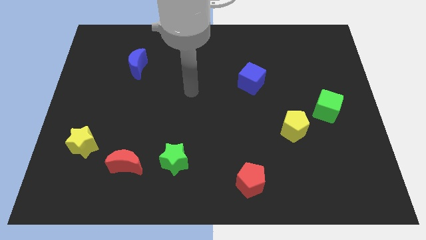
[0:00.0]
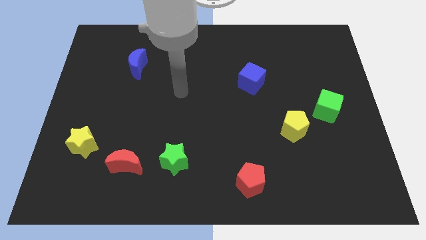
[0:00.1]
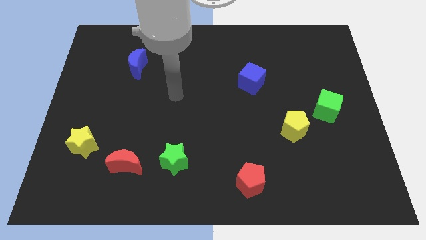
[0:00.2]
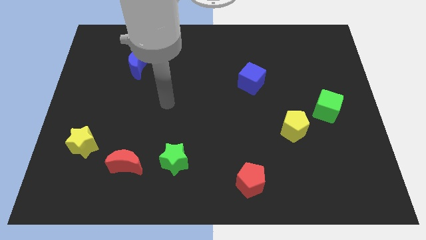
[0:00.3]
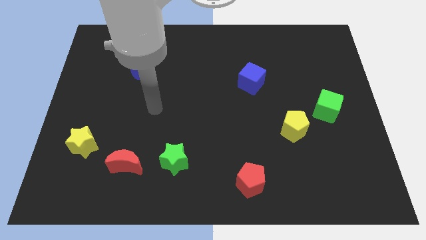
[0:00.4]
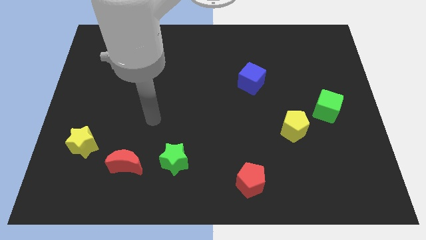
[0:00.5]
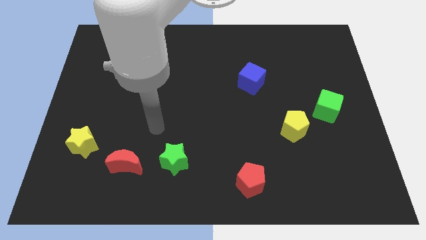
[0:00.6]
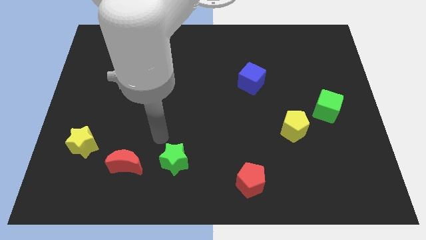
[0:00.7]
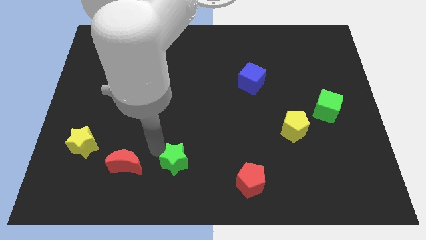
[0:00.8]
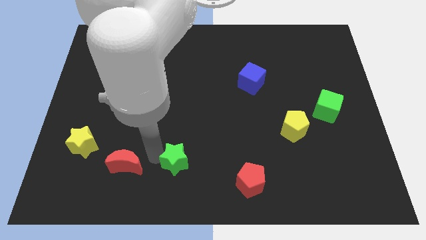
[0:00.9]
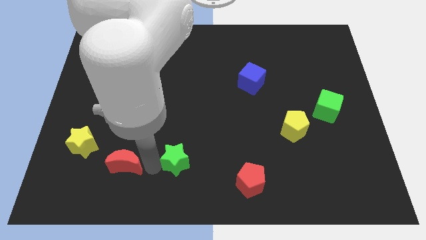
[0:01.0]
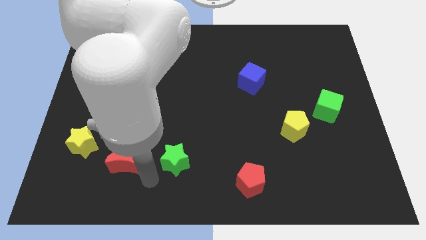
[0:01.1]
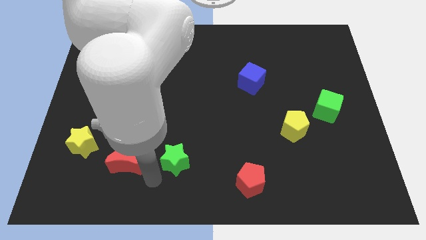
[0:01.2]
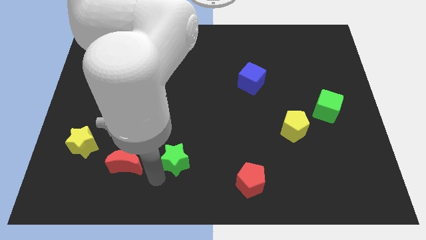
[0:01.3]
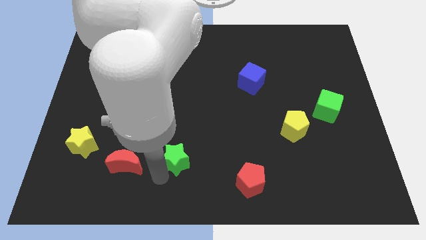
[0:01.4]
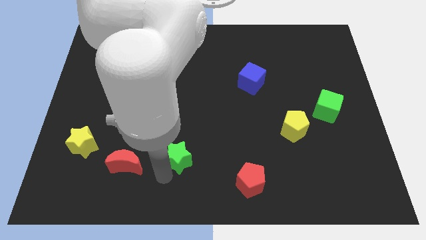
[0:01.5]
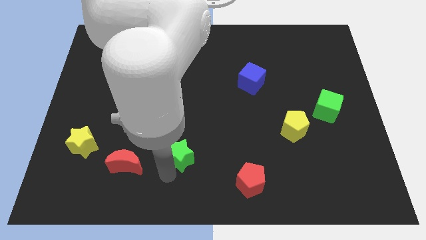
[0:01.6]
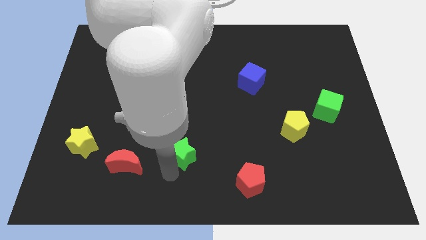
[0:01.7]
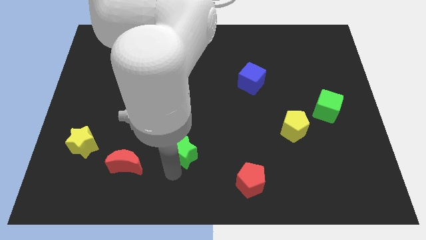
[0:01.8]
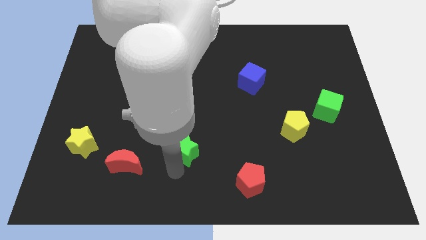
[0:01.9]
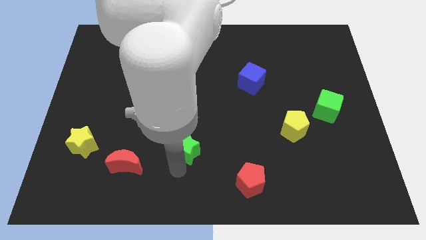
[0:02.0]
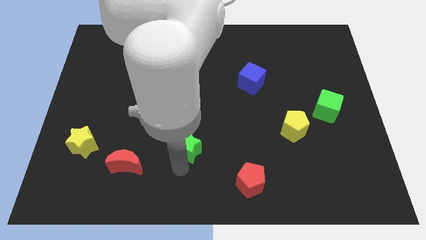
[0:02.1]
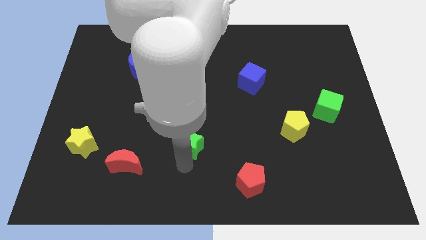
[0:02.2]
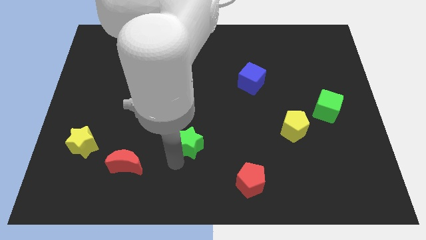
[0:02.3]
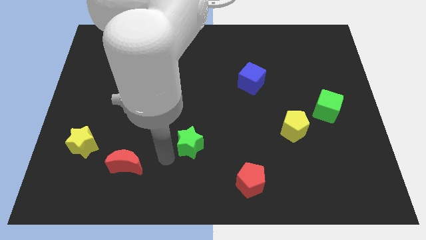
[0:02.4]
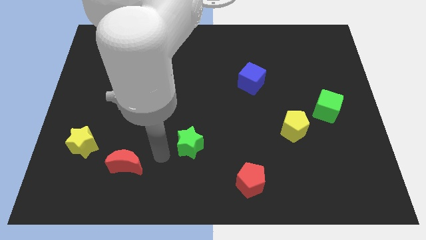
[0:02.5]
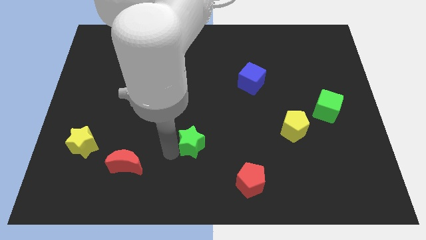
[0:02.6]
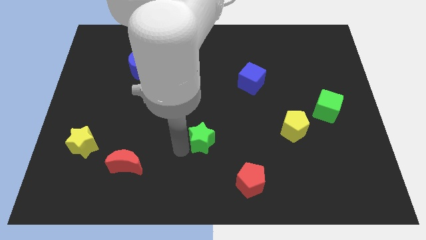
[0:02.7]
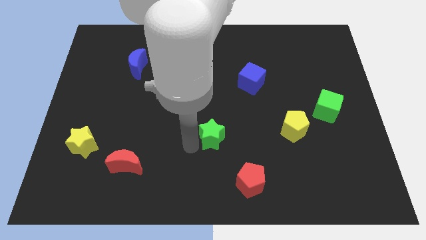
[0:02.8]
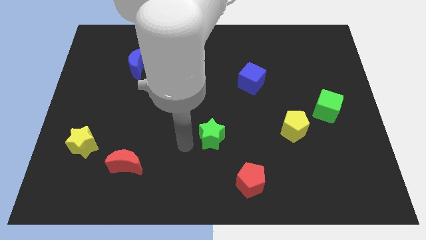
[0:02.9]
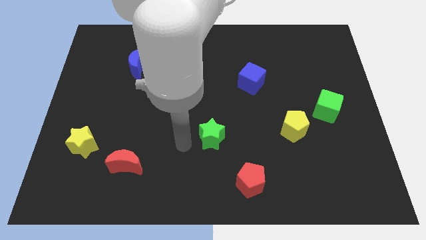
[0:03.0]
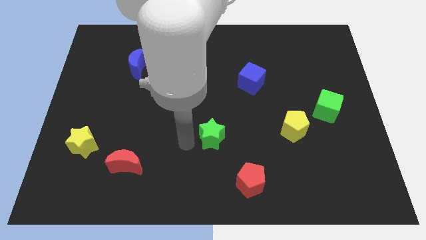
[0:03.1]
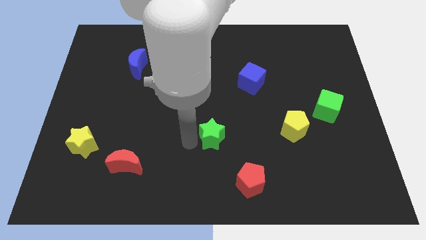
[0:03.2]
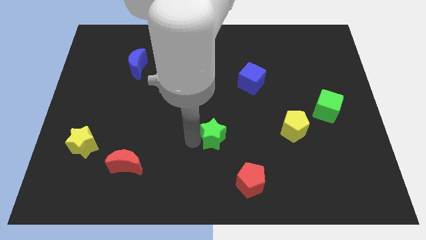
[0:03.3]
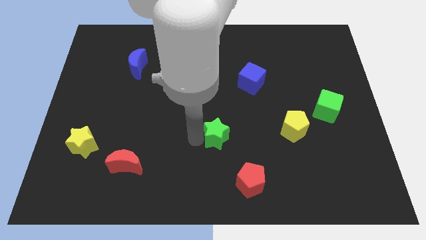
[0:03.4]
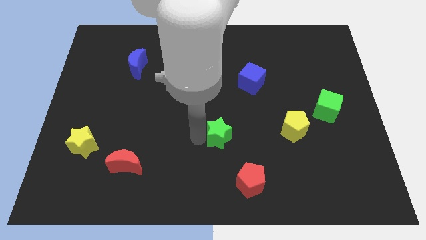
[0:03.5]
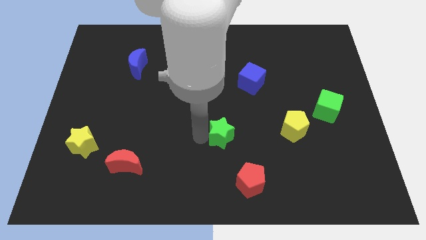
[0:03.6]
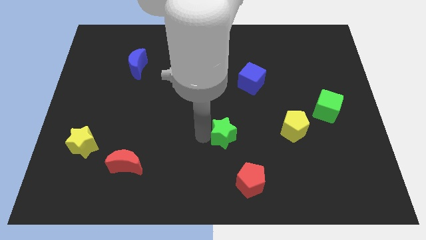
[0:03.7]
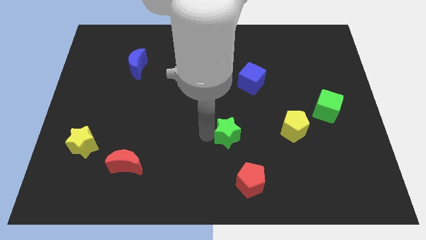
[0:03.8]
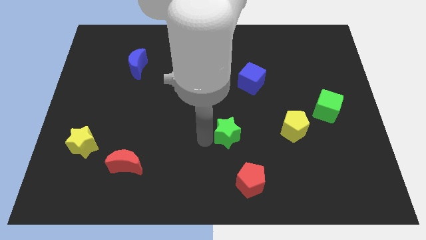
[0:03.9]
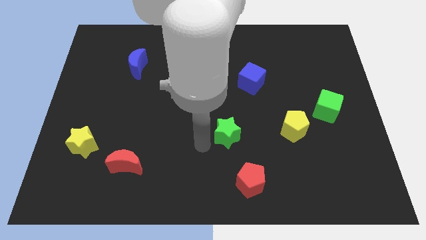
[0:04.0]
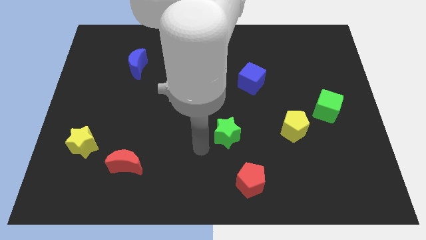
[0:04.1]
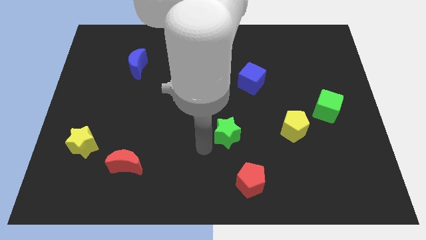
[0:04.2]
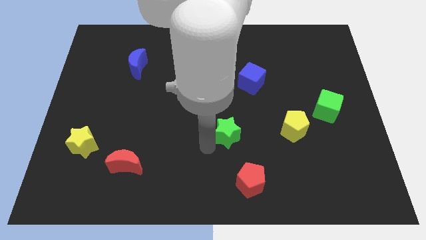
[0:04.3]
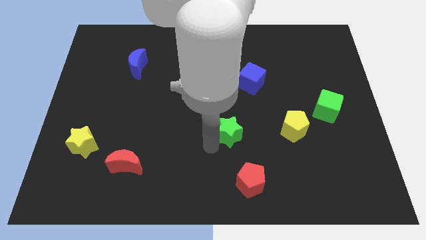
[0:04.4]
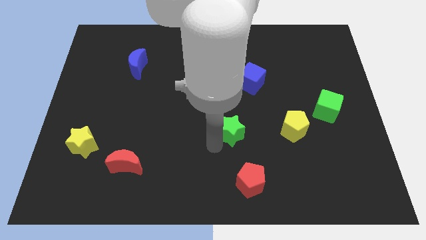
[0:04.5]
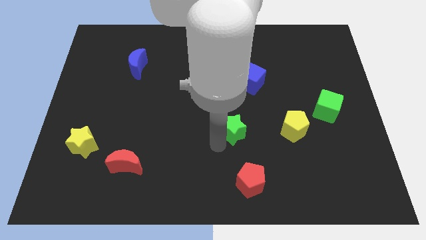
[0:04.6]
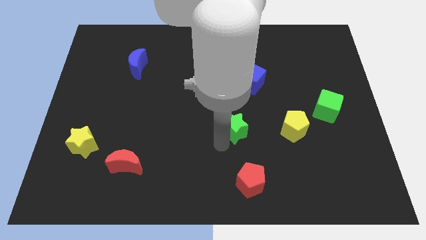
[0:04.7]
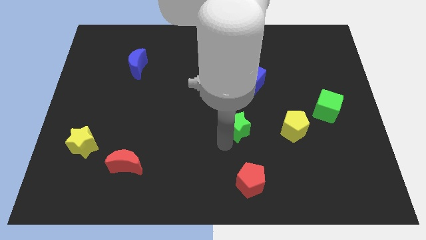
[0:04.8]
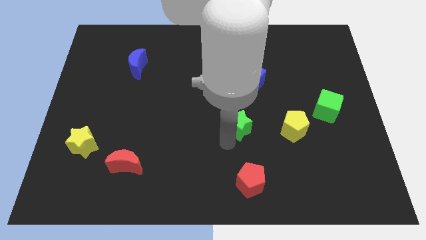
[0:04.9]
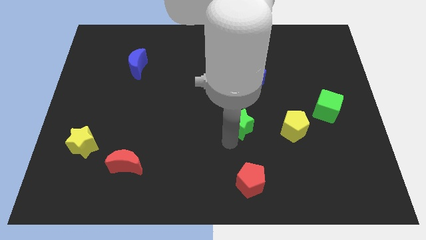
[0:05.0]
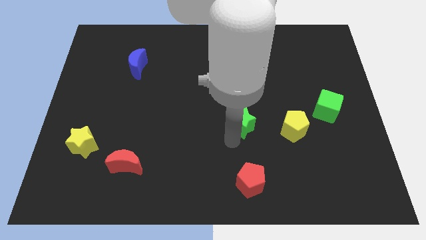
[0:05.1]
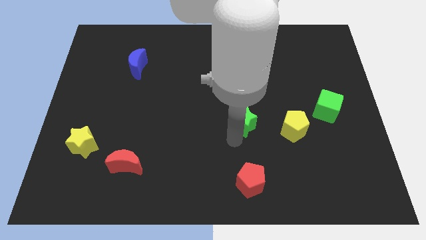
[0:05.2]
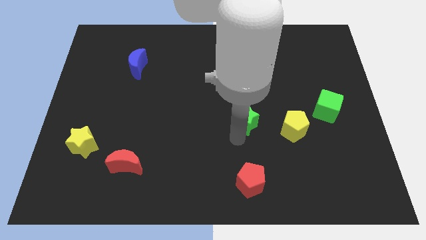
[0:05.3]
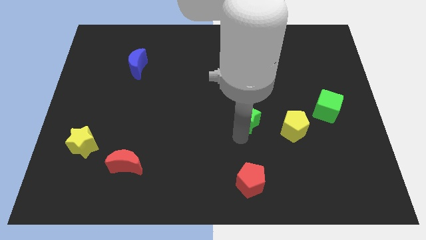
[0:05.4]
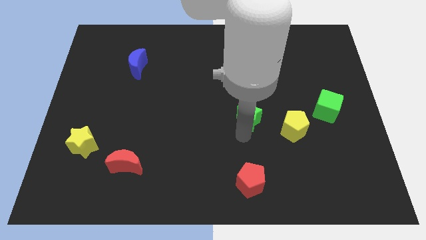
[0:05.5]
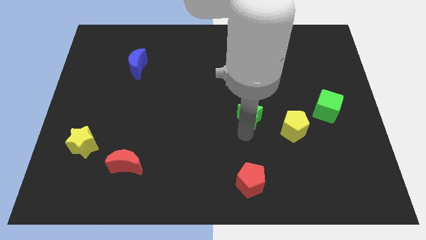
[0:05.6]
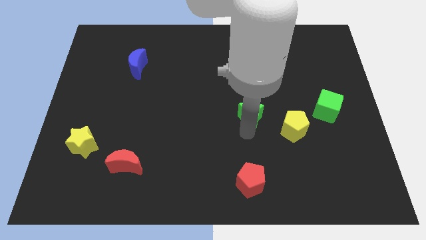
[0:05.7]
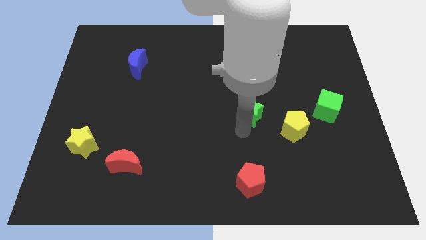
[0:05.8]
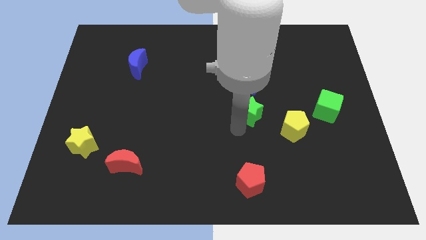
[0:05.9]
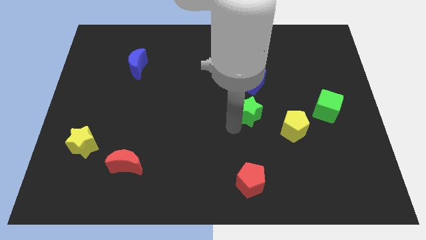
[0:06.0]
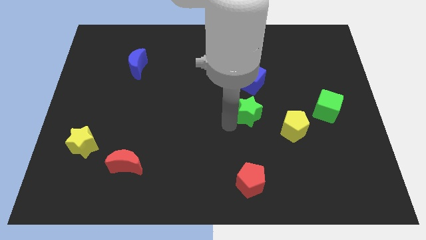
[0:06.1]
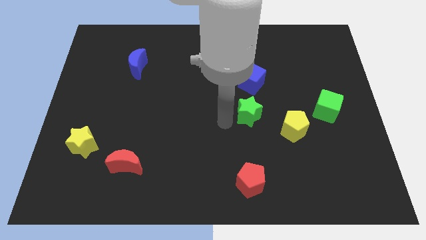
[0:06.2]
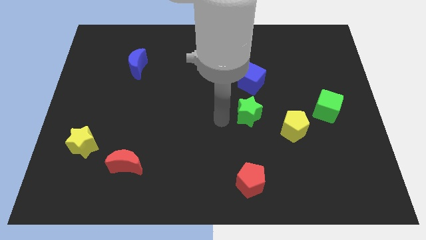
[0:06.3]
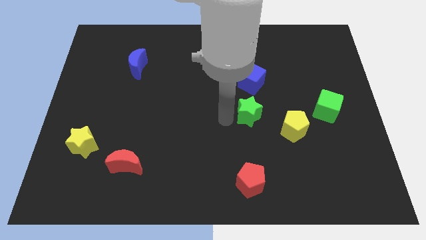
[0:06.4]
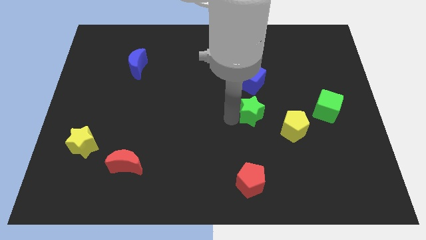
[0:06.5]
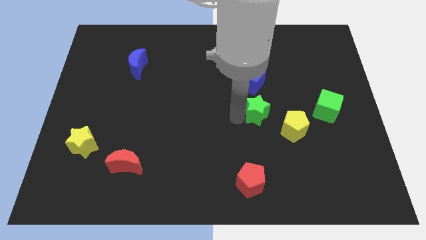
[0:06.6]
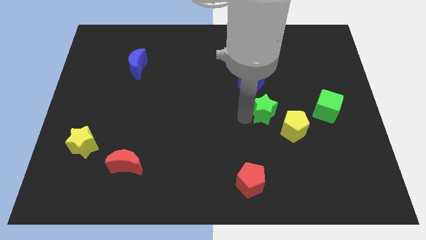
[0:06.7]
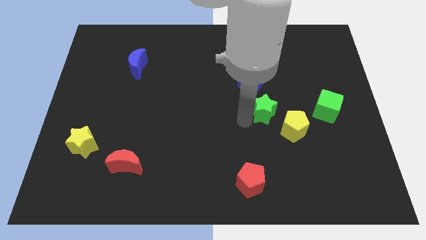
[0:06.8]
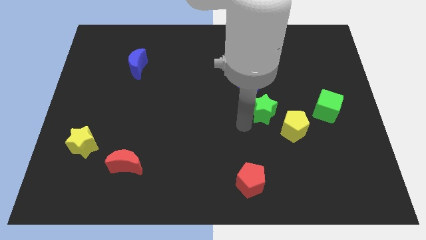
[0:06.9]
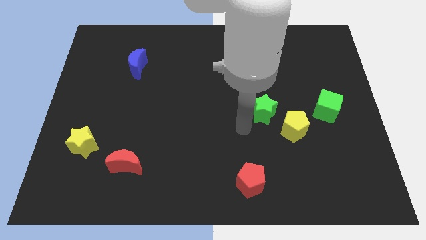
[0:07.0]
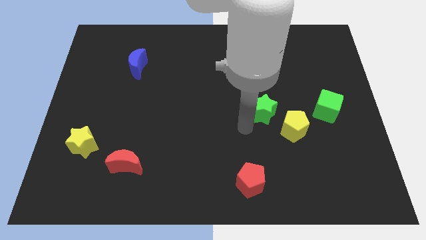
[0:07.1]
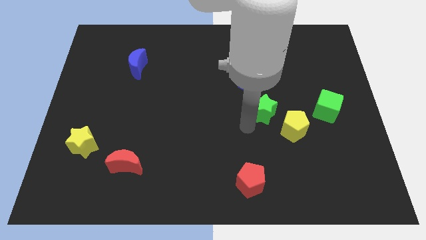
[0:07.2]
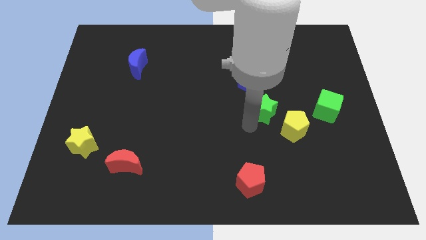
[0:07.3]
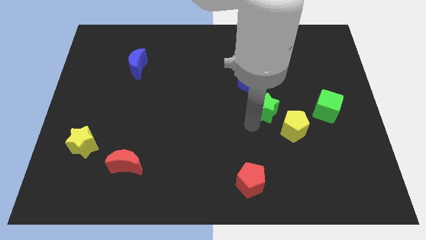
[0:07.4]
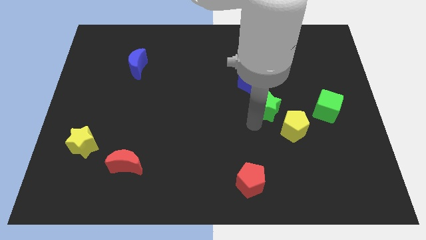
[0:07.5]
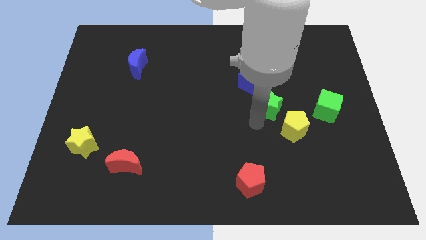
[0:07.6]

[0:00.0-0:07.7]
push the green star to the top of the yellow pentagon
